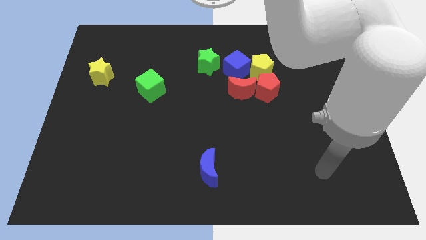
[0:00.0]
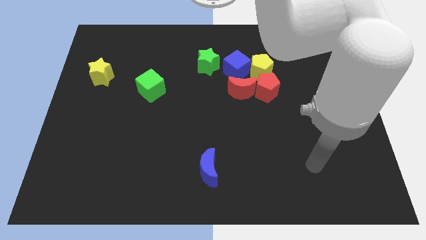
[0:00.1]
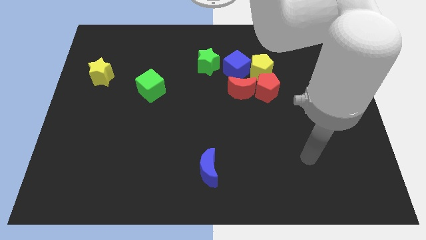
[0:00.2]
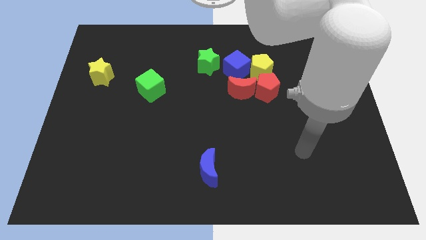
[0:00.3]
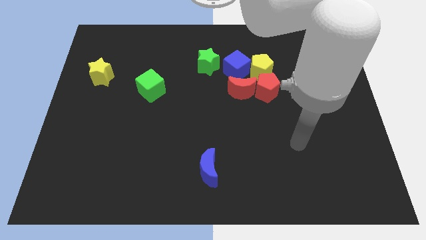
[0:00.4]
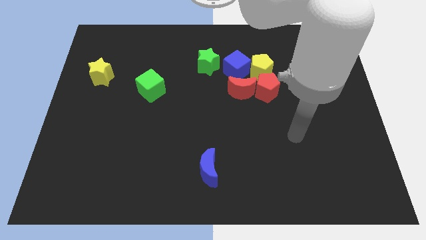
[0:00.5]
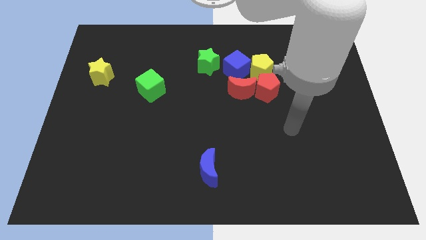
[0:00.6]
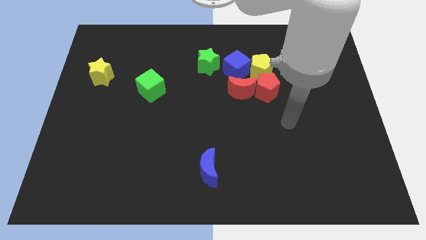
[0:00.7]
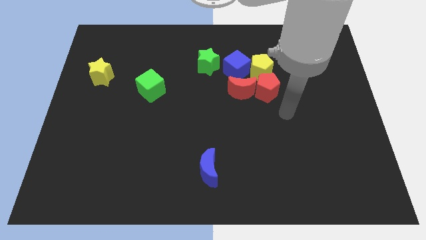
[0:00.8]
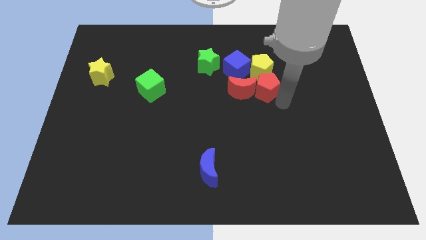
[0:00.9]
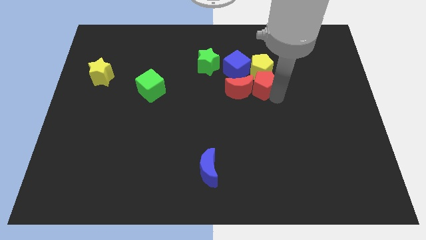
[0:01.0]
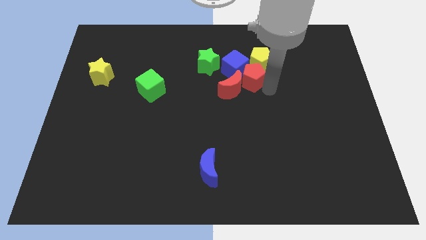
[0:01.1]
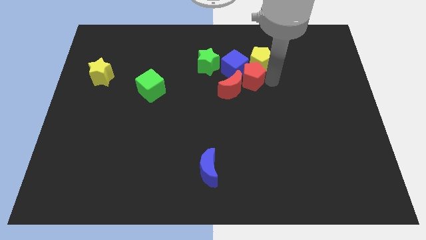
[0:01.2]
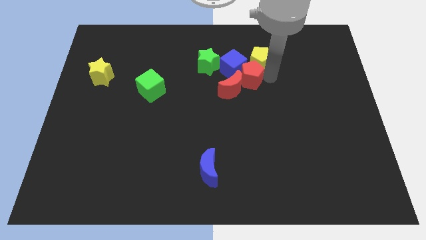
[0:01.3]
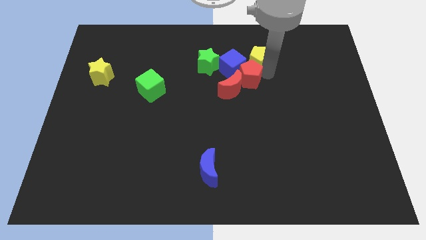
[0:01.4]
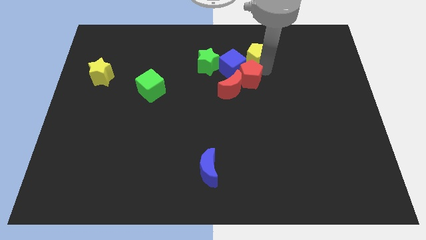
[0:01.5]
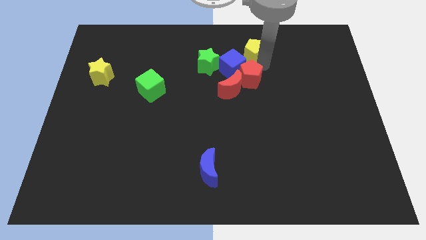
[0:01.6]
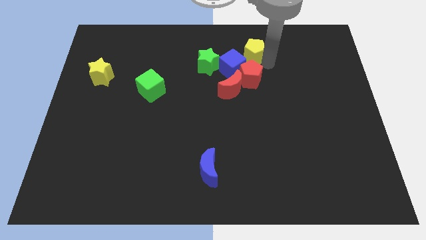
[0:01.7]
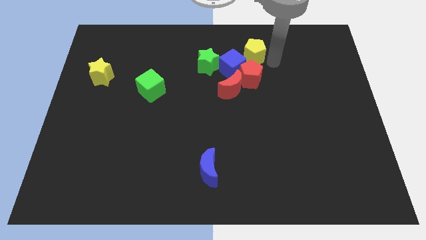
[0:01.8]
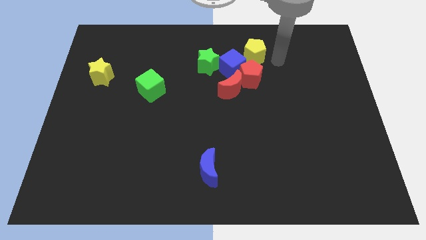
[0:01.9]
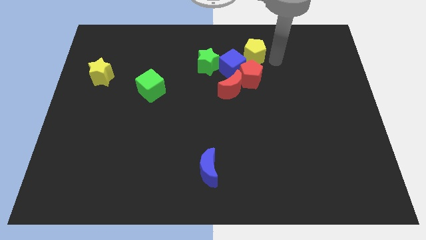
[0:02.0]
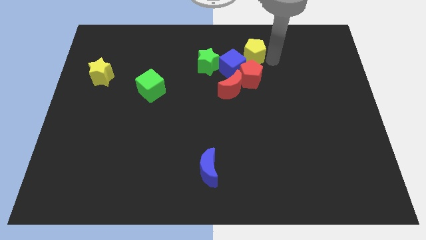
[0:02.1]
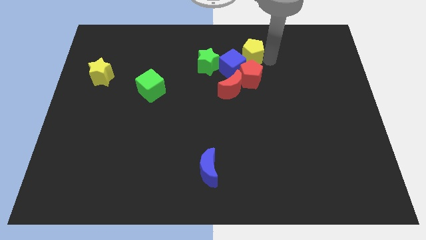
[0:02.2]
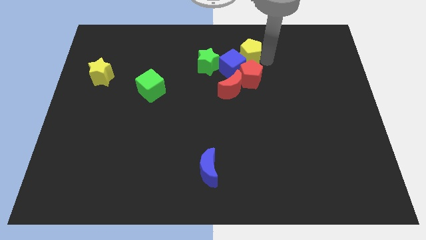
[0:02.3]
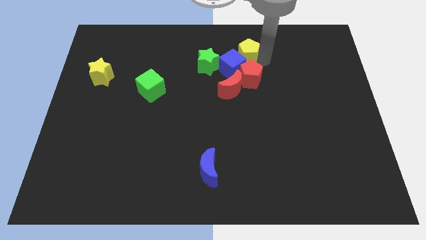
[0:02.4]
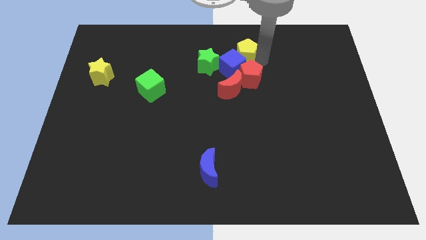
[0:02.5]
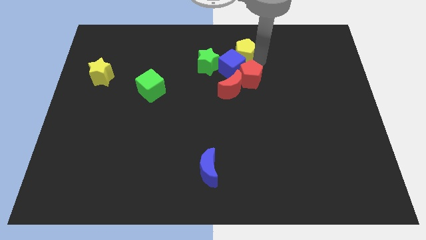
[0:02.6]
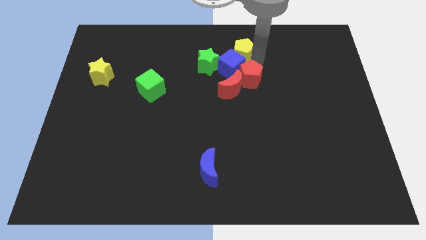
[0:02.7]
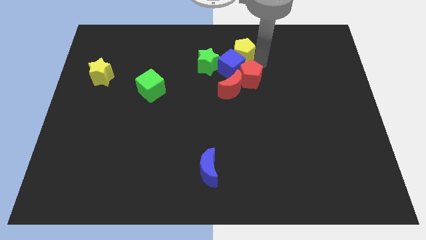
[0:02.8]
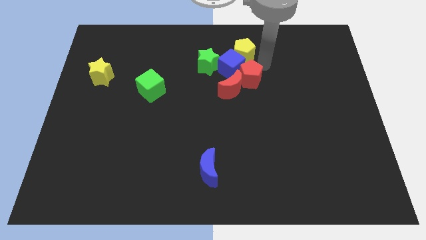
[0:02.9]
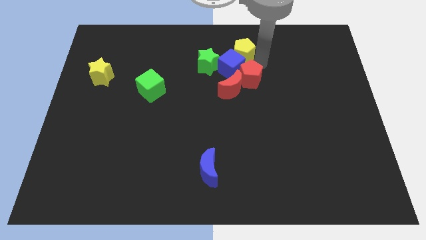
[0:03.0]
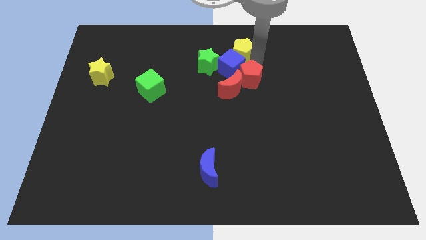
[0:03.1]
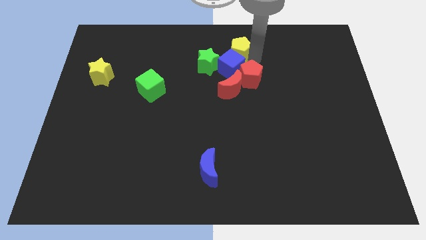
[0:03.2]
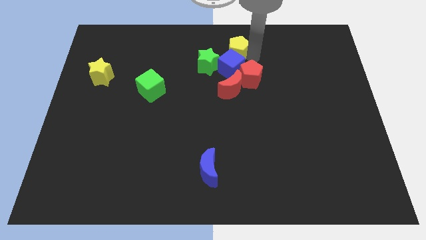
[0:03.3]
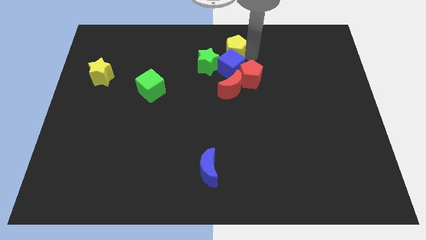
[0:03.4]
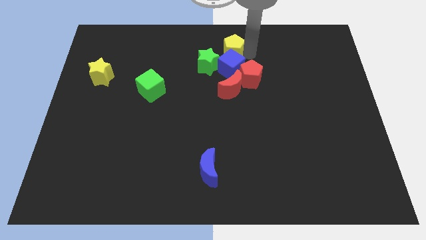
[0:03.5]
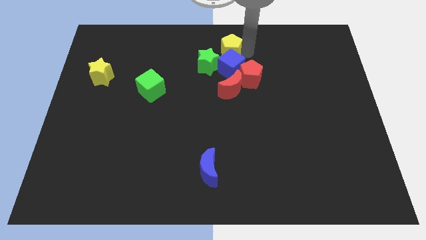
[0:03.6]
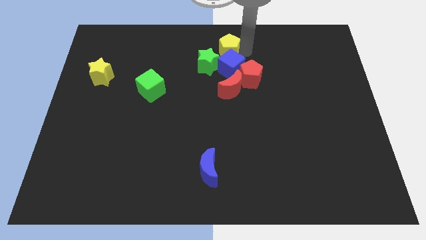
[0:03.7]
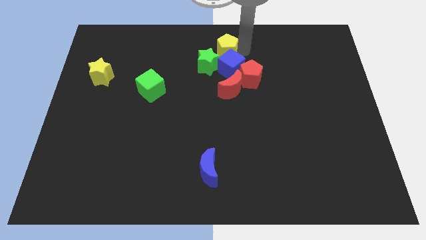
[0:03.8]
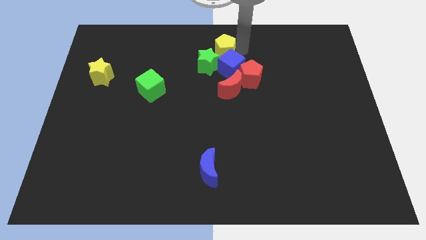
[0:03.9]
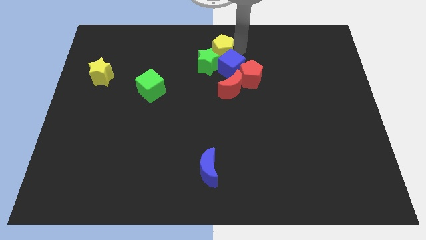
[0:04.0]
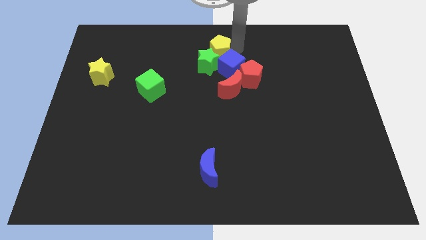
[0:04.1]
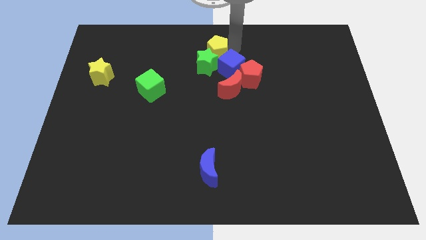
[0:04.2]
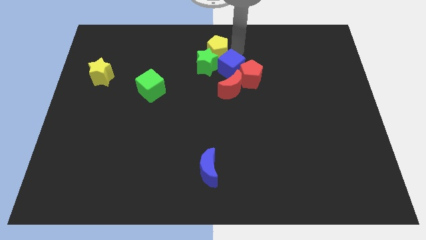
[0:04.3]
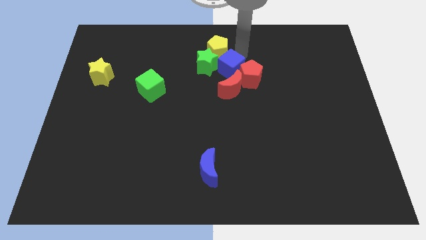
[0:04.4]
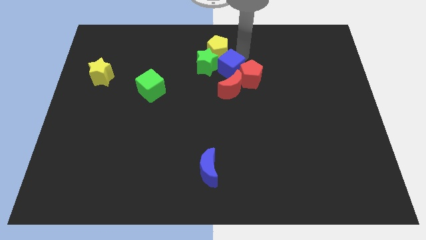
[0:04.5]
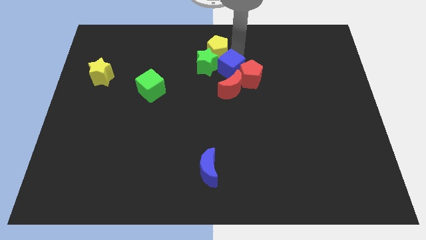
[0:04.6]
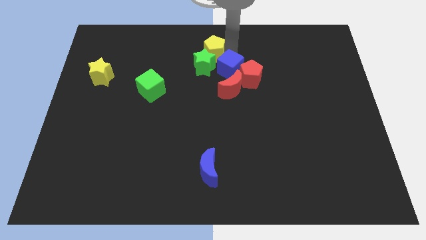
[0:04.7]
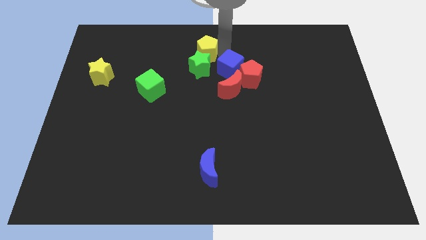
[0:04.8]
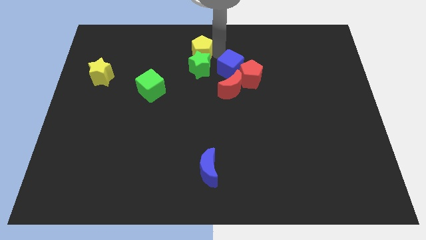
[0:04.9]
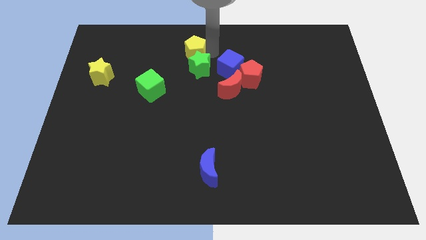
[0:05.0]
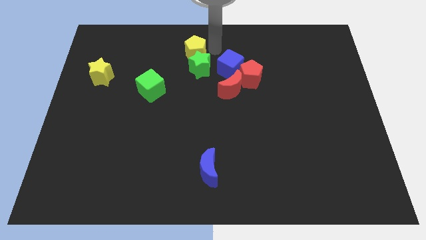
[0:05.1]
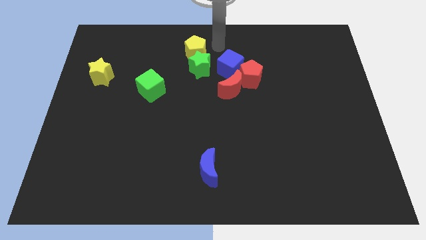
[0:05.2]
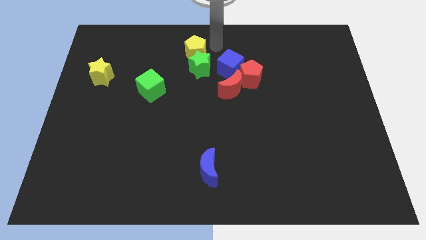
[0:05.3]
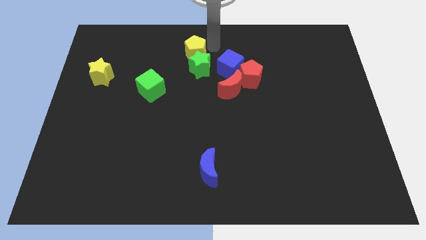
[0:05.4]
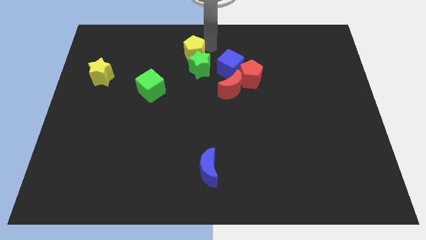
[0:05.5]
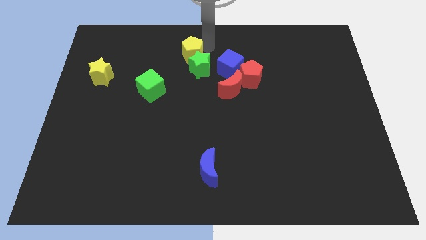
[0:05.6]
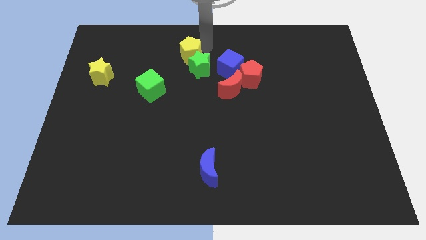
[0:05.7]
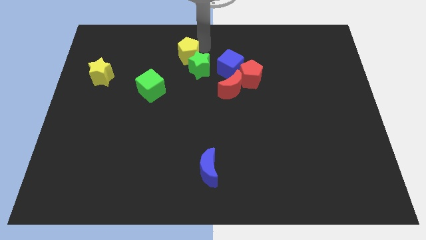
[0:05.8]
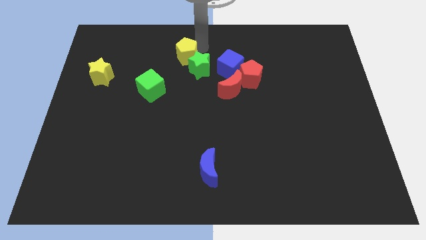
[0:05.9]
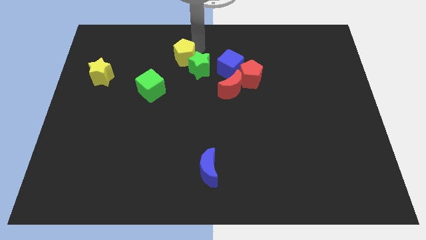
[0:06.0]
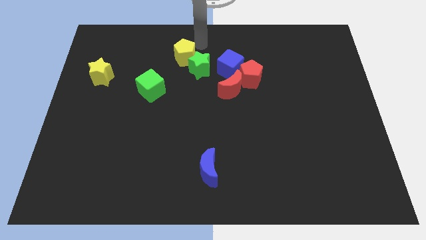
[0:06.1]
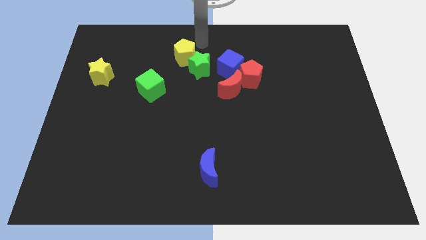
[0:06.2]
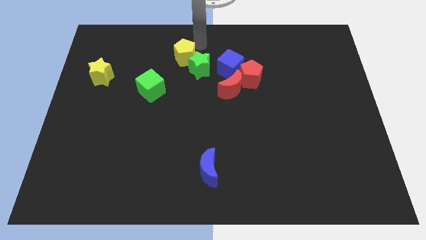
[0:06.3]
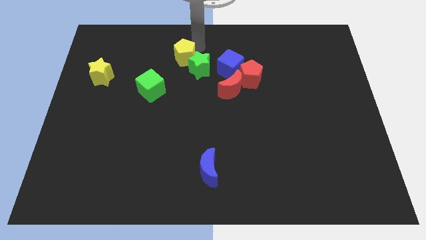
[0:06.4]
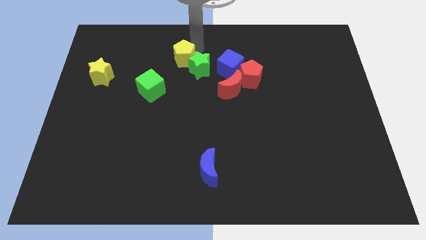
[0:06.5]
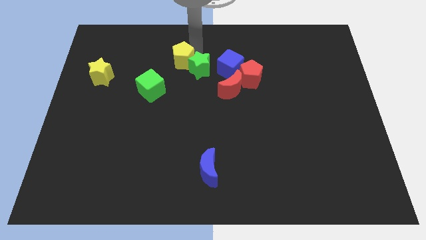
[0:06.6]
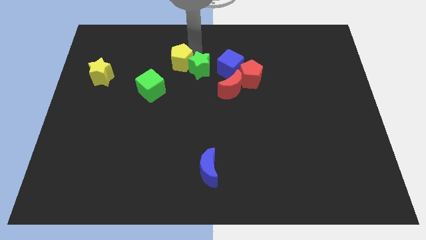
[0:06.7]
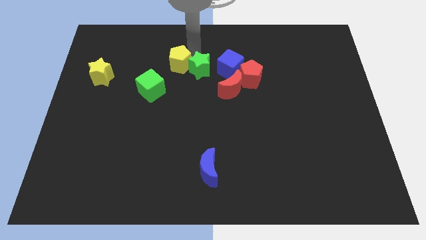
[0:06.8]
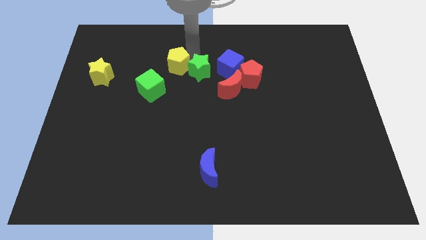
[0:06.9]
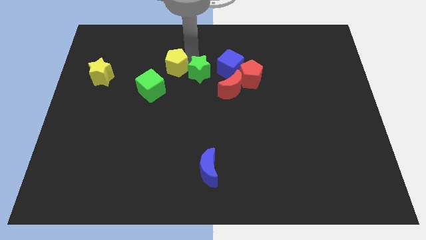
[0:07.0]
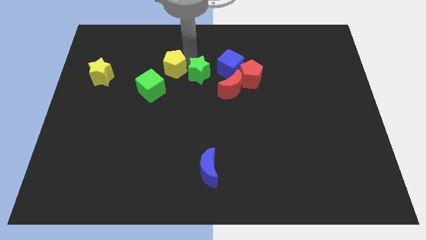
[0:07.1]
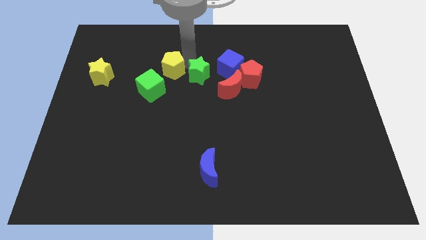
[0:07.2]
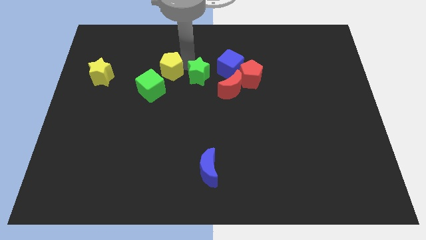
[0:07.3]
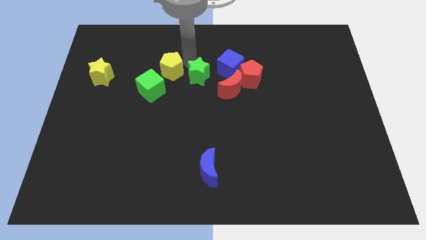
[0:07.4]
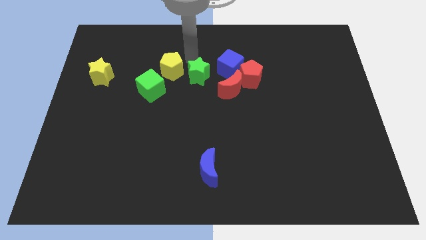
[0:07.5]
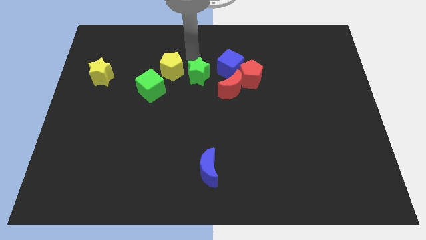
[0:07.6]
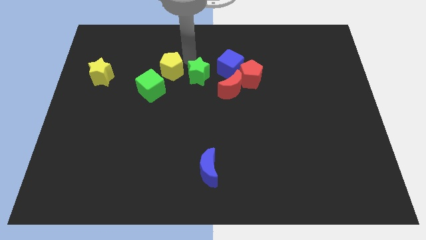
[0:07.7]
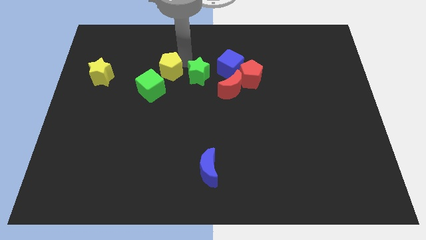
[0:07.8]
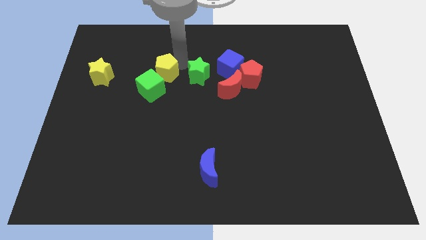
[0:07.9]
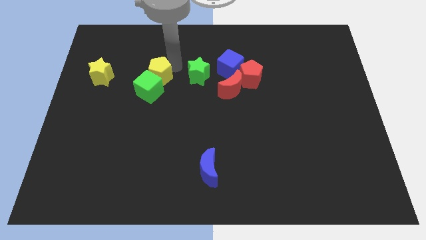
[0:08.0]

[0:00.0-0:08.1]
push the yellow pentagon next to the green cube
